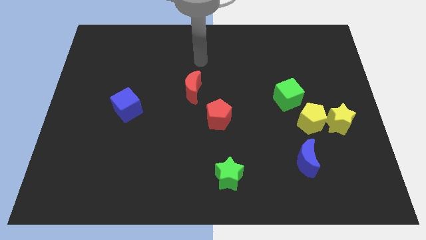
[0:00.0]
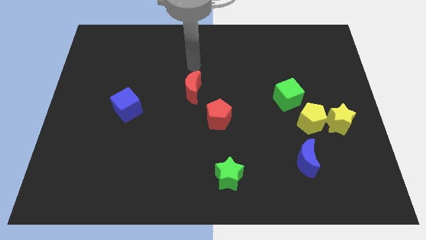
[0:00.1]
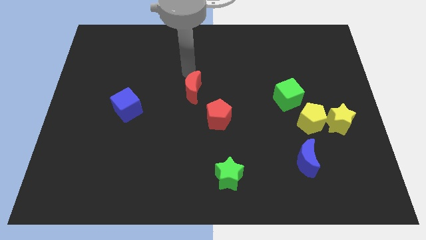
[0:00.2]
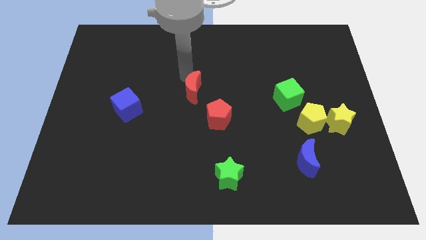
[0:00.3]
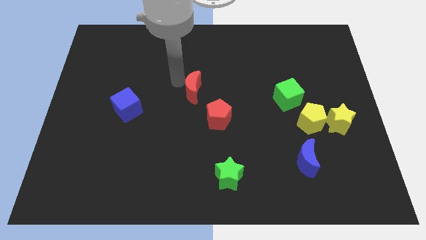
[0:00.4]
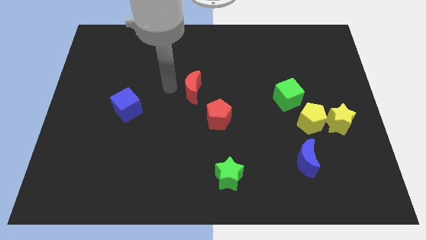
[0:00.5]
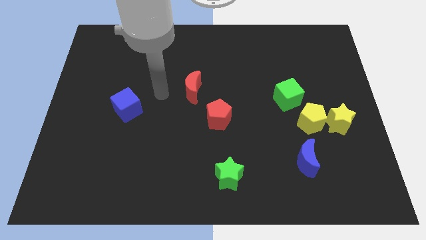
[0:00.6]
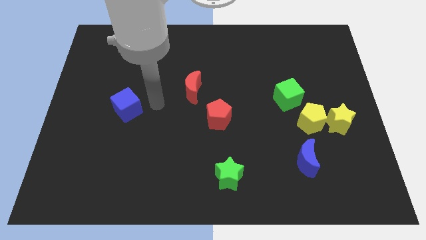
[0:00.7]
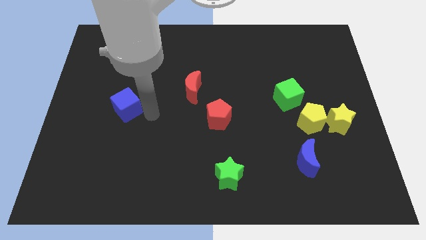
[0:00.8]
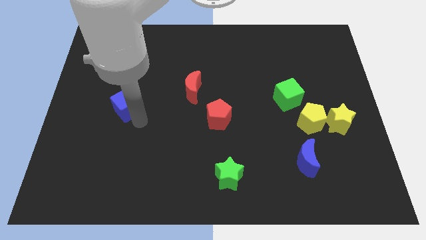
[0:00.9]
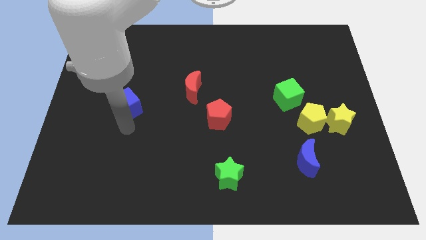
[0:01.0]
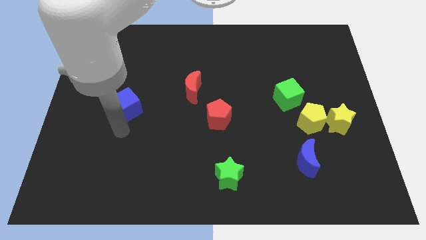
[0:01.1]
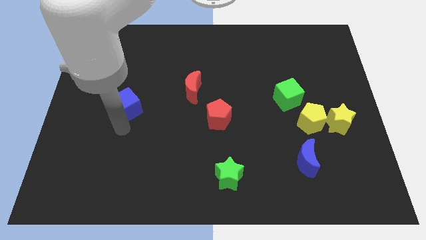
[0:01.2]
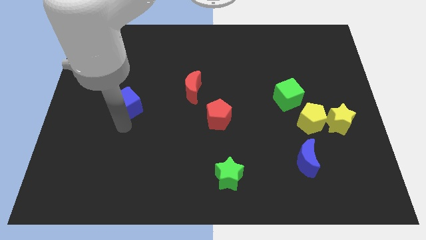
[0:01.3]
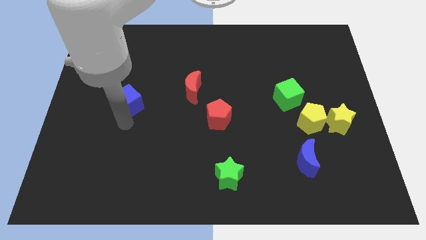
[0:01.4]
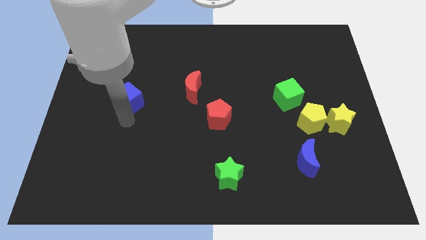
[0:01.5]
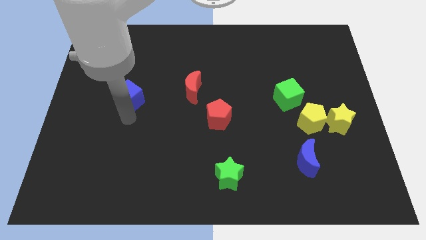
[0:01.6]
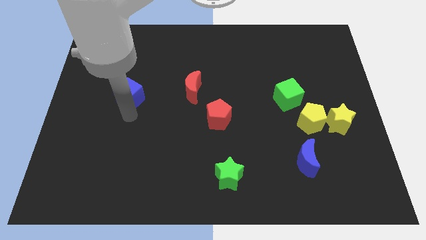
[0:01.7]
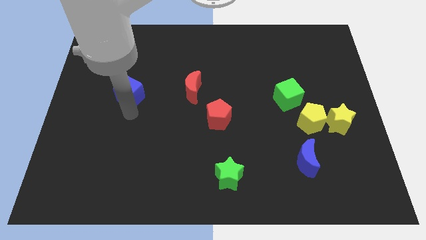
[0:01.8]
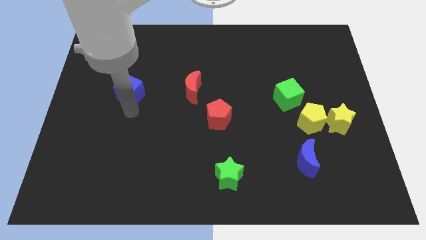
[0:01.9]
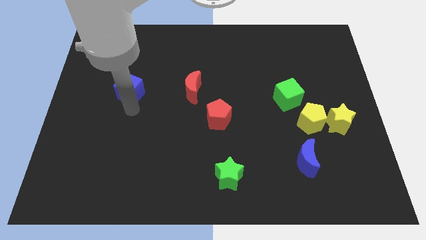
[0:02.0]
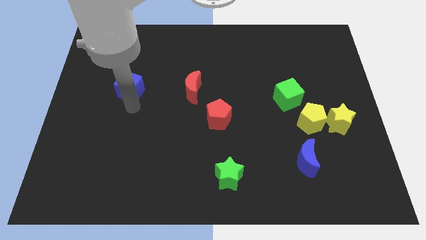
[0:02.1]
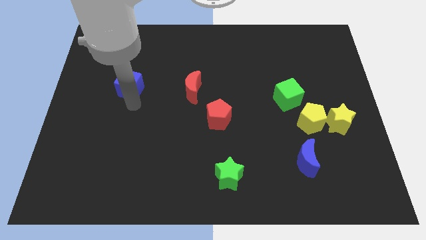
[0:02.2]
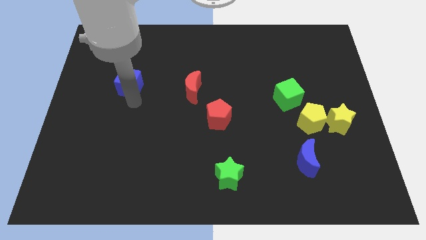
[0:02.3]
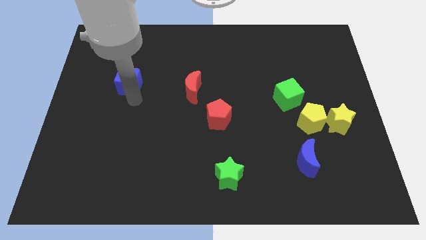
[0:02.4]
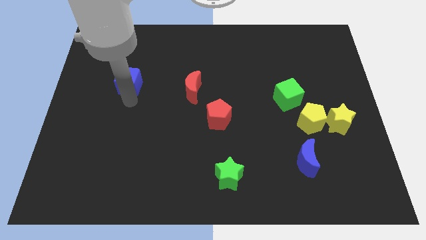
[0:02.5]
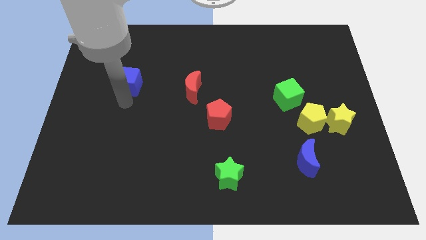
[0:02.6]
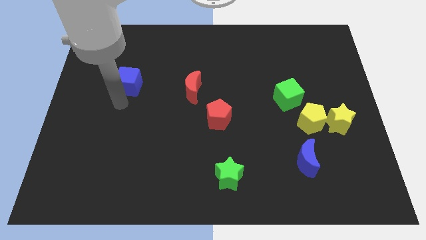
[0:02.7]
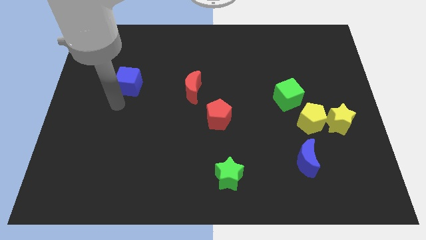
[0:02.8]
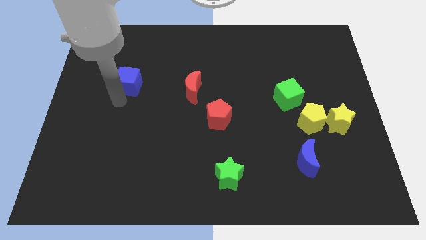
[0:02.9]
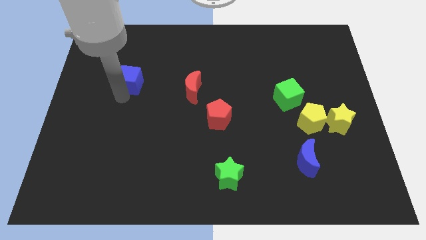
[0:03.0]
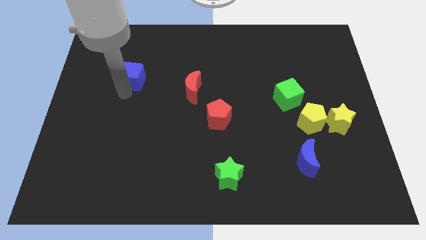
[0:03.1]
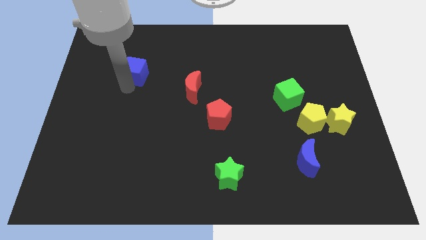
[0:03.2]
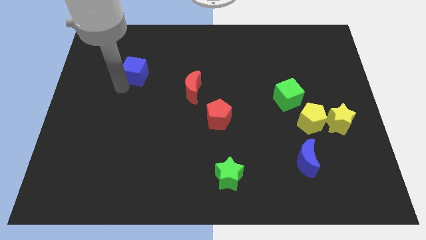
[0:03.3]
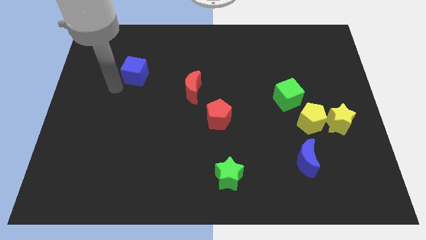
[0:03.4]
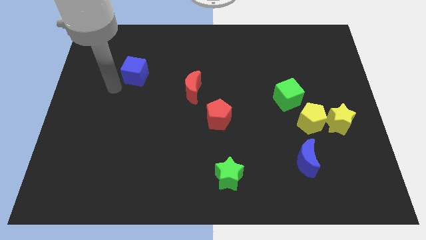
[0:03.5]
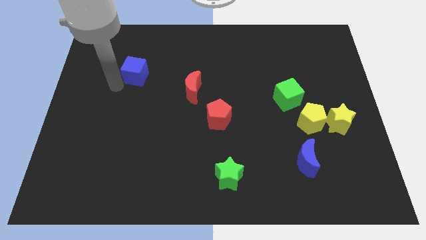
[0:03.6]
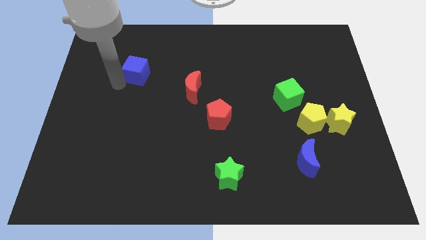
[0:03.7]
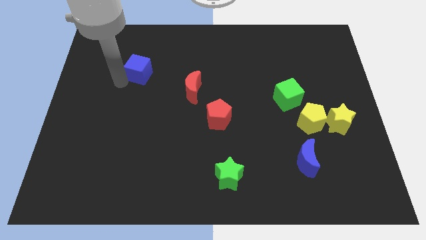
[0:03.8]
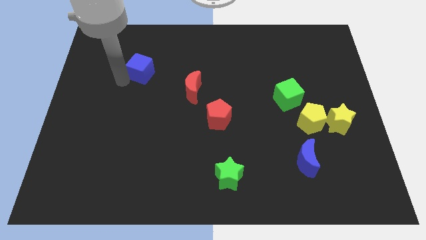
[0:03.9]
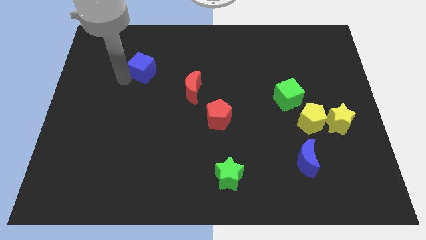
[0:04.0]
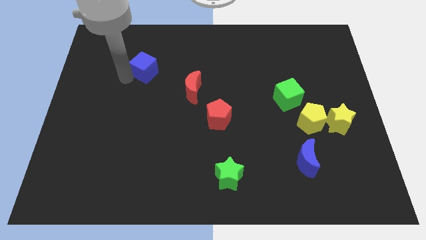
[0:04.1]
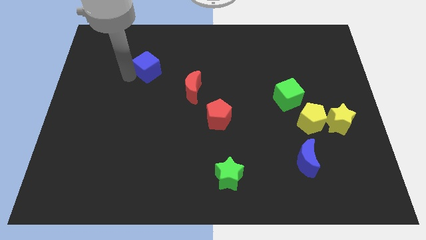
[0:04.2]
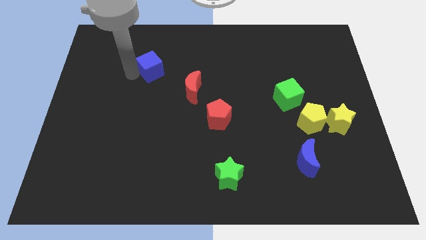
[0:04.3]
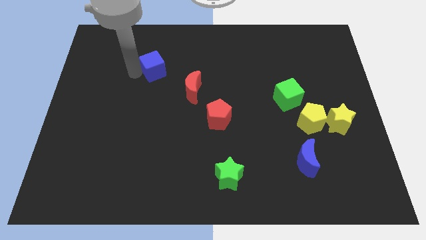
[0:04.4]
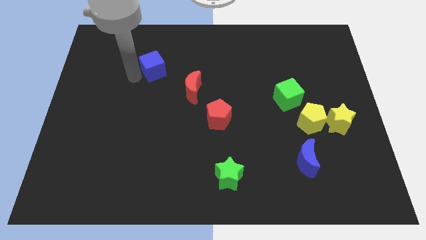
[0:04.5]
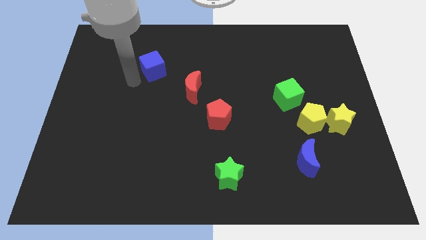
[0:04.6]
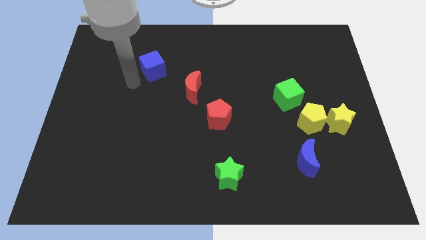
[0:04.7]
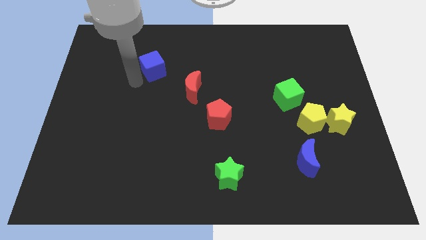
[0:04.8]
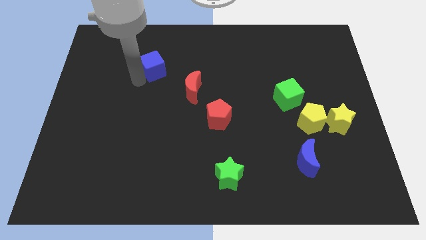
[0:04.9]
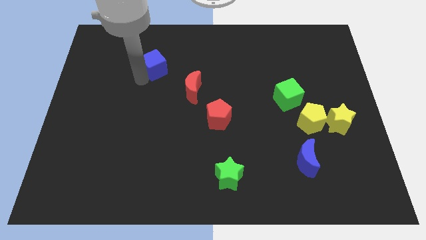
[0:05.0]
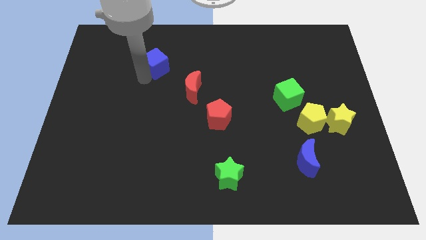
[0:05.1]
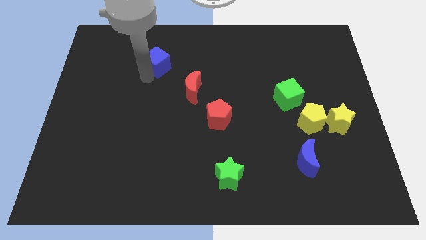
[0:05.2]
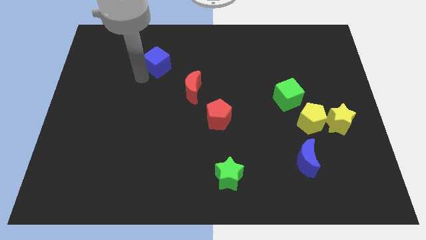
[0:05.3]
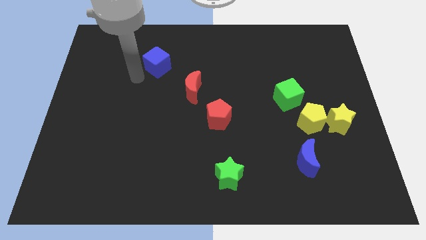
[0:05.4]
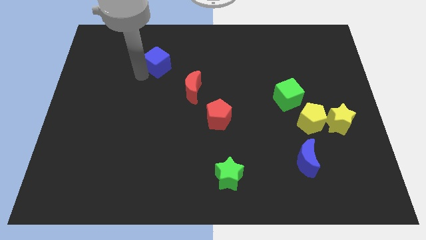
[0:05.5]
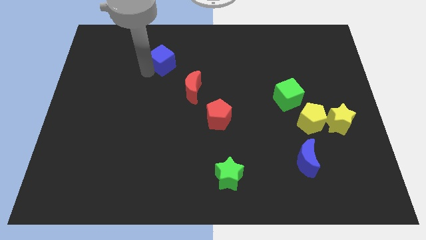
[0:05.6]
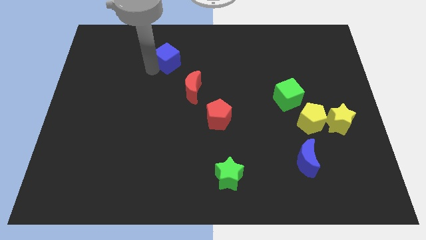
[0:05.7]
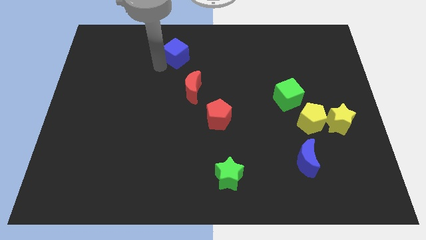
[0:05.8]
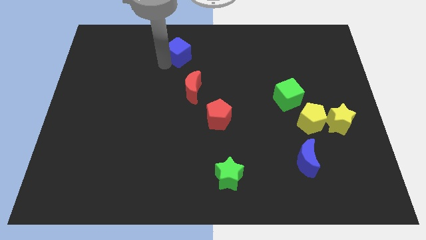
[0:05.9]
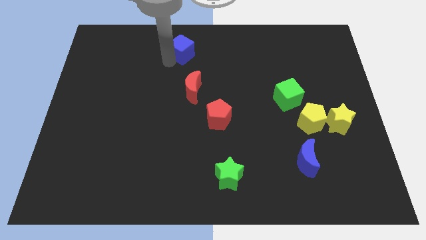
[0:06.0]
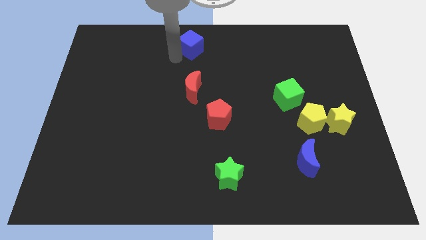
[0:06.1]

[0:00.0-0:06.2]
put the blue cube to the top
